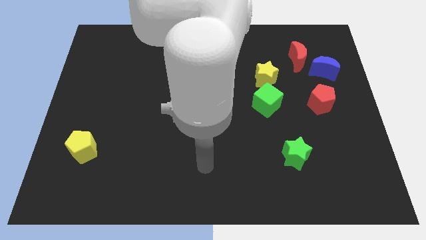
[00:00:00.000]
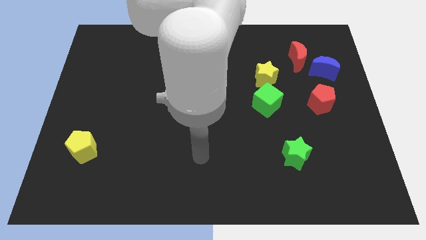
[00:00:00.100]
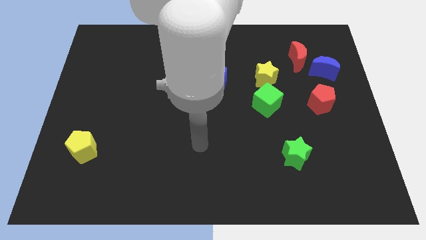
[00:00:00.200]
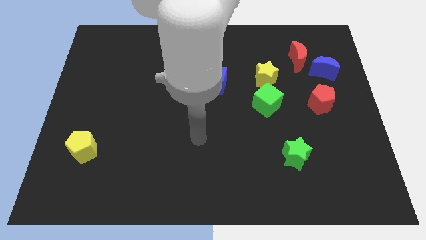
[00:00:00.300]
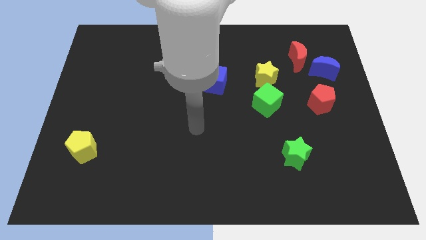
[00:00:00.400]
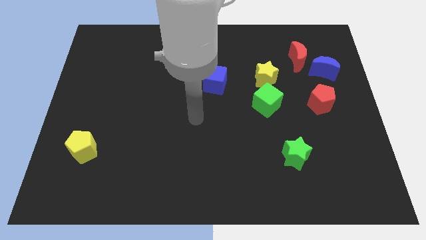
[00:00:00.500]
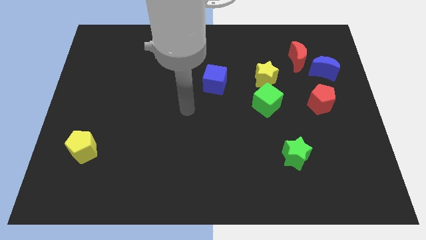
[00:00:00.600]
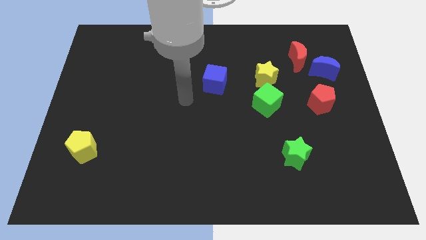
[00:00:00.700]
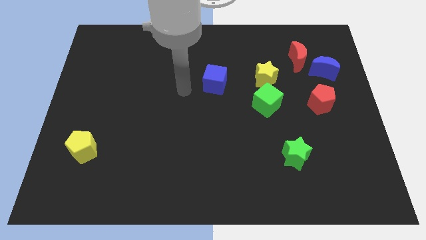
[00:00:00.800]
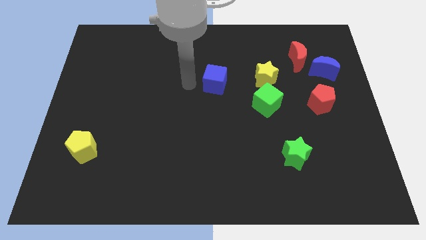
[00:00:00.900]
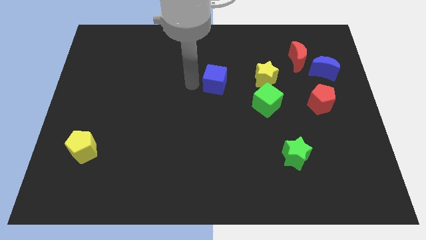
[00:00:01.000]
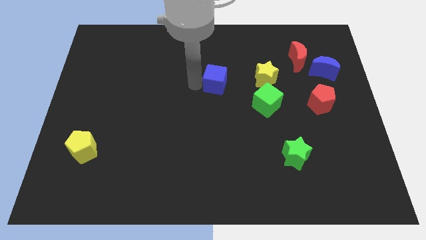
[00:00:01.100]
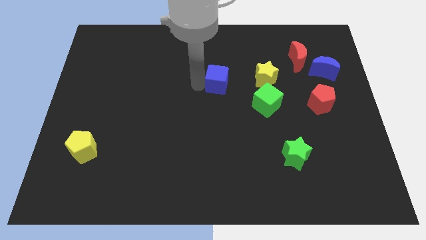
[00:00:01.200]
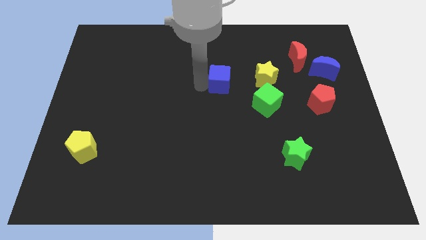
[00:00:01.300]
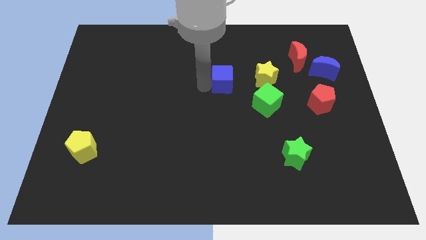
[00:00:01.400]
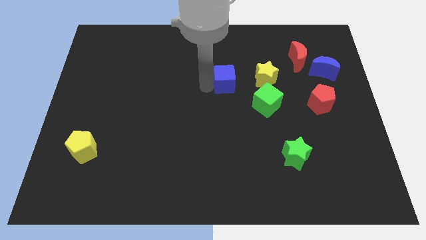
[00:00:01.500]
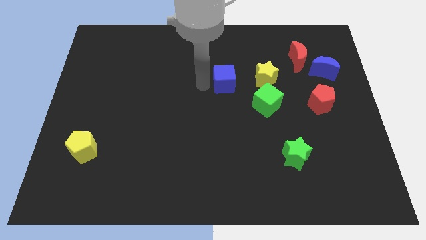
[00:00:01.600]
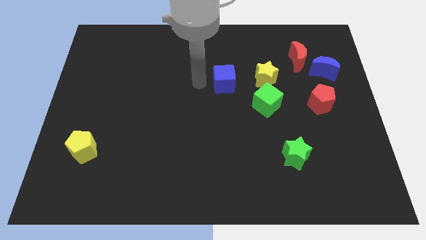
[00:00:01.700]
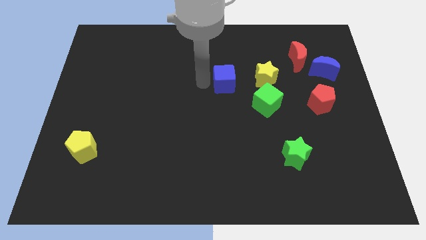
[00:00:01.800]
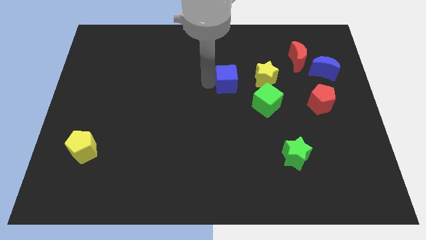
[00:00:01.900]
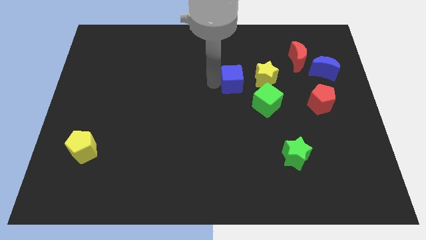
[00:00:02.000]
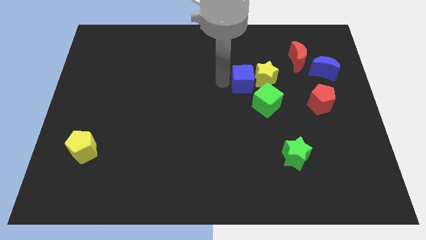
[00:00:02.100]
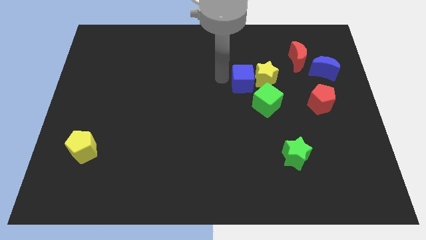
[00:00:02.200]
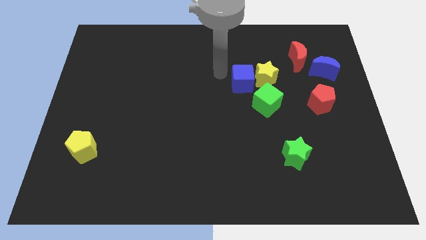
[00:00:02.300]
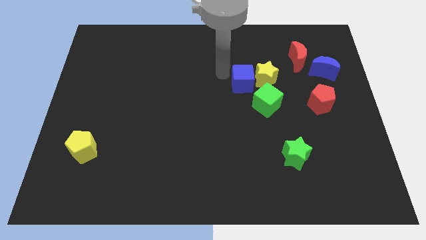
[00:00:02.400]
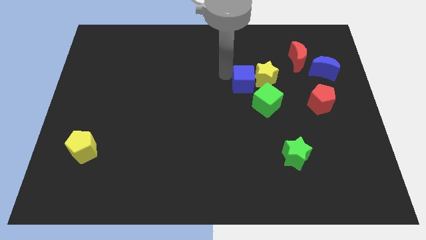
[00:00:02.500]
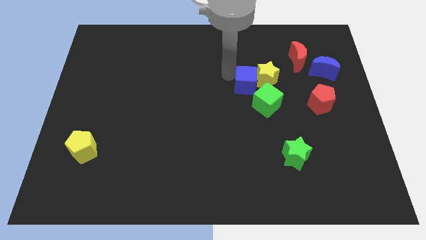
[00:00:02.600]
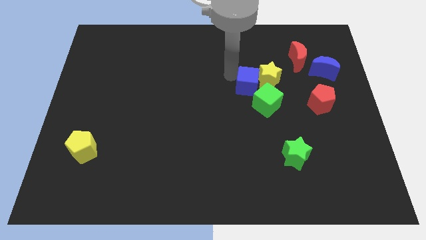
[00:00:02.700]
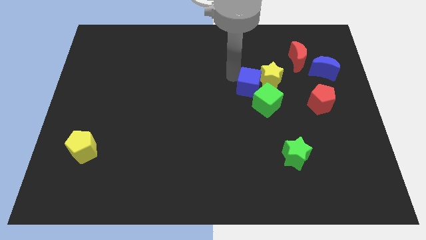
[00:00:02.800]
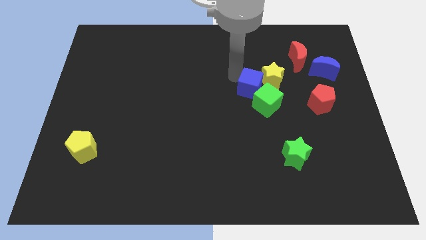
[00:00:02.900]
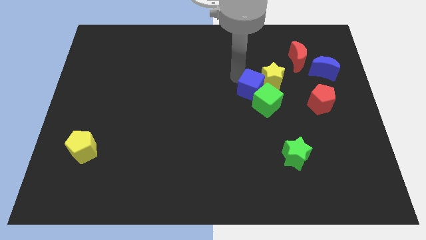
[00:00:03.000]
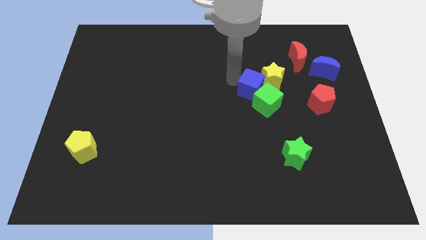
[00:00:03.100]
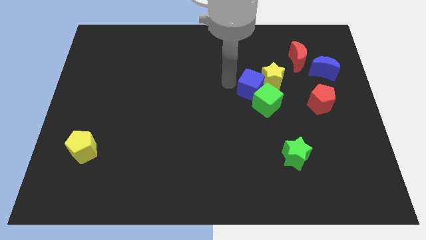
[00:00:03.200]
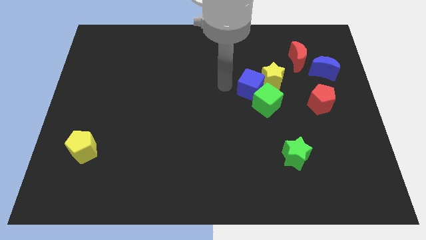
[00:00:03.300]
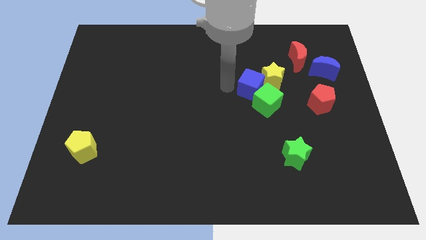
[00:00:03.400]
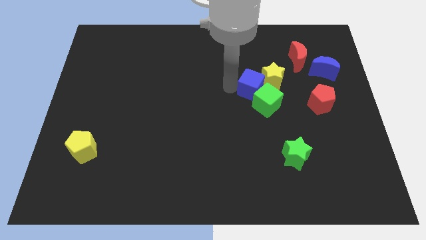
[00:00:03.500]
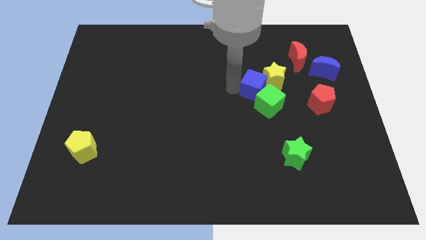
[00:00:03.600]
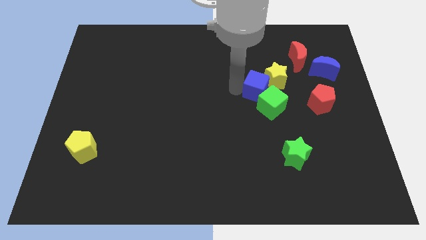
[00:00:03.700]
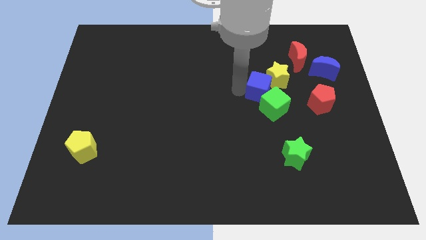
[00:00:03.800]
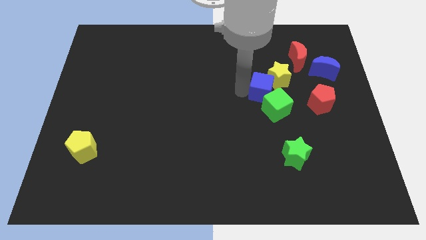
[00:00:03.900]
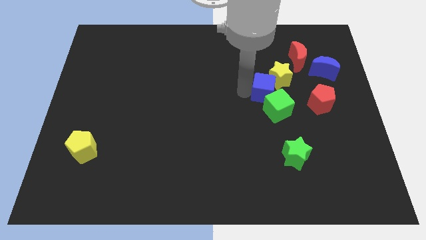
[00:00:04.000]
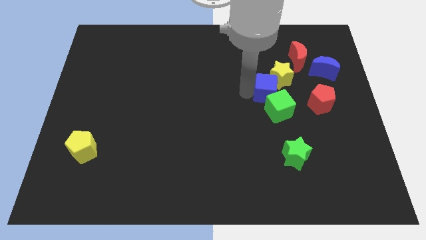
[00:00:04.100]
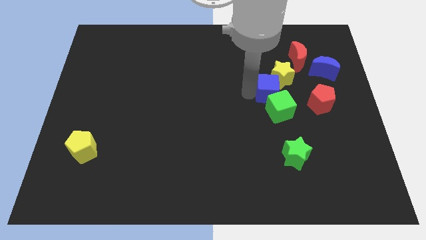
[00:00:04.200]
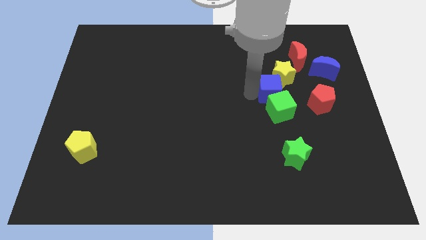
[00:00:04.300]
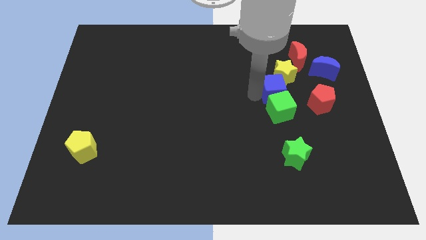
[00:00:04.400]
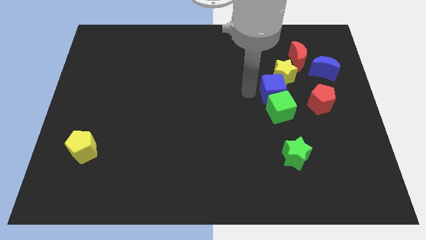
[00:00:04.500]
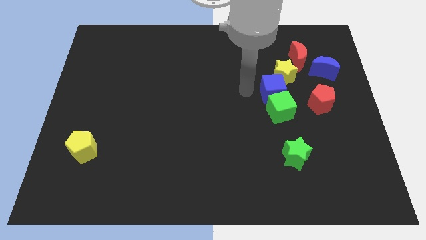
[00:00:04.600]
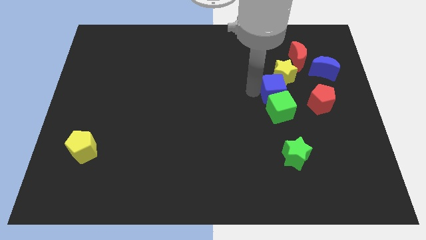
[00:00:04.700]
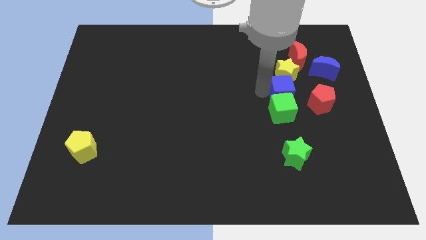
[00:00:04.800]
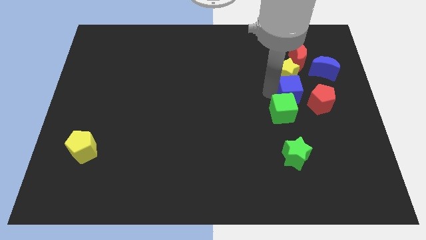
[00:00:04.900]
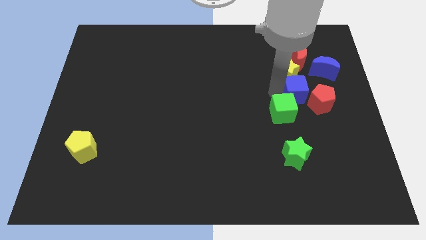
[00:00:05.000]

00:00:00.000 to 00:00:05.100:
slide the blue cube towards the red pentagon

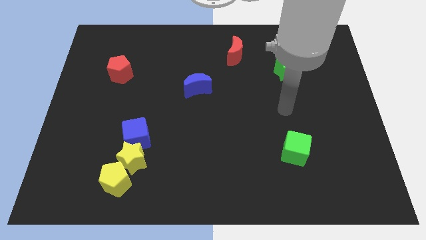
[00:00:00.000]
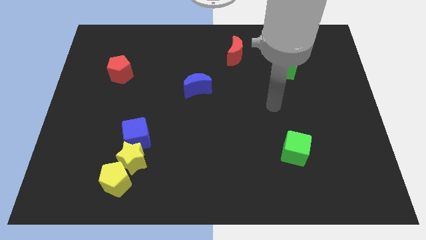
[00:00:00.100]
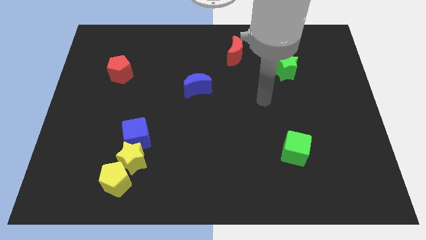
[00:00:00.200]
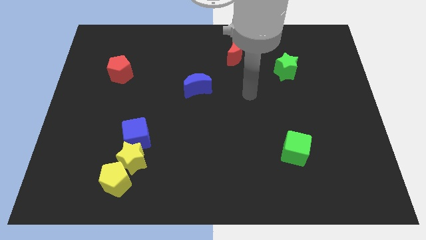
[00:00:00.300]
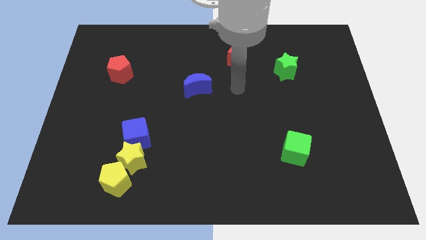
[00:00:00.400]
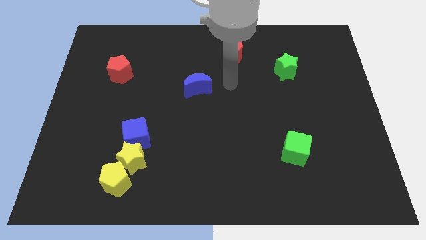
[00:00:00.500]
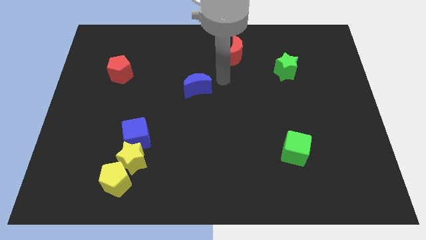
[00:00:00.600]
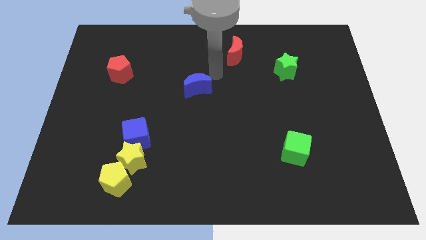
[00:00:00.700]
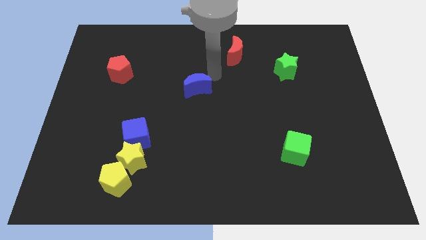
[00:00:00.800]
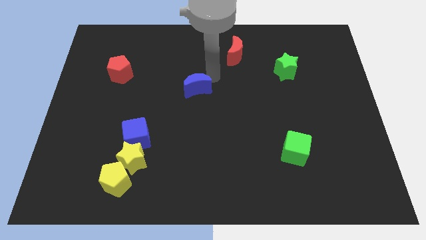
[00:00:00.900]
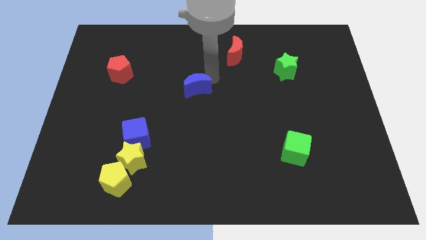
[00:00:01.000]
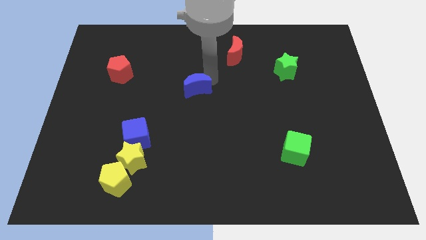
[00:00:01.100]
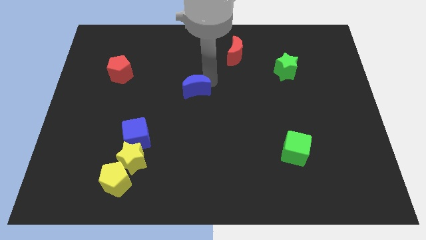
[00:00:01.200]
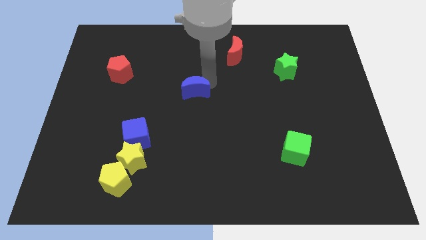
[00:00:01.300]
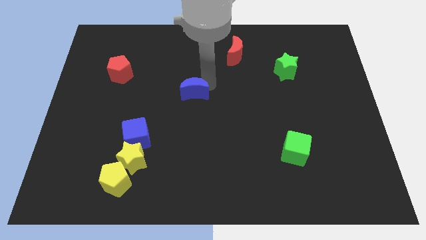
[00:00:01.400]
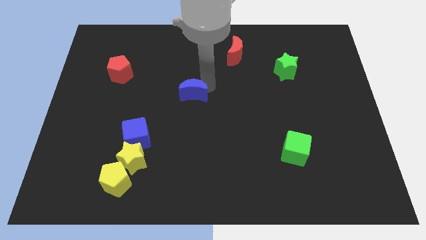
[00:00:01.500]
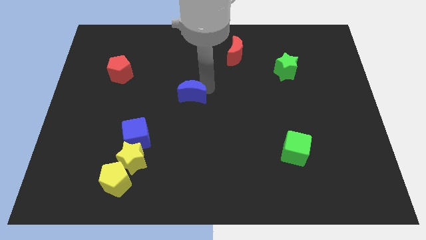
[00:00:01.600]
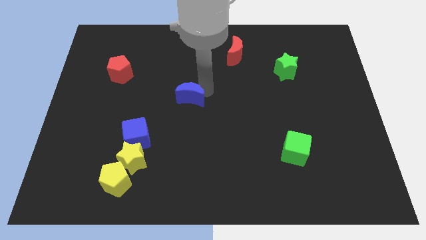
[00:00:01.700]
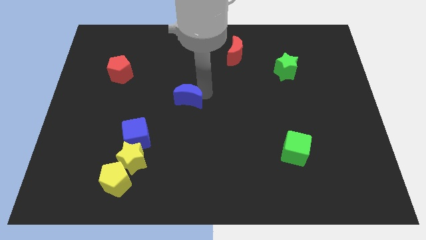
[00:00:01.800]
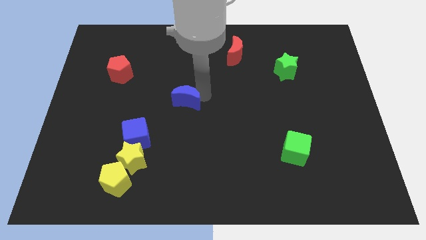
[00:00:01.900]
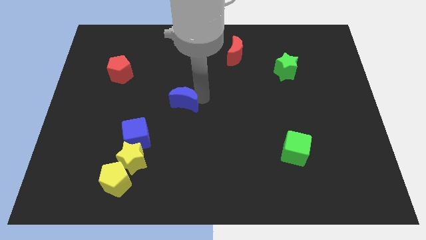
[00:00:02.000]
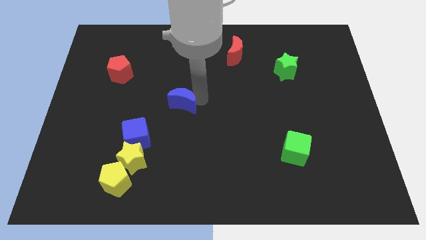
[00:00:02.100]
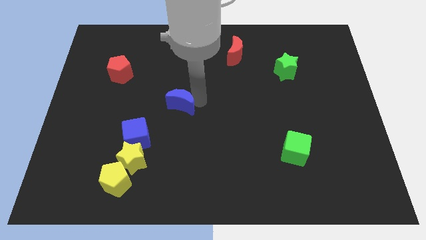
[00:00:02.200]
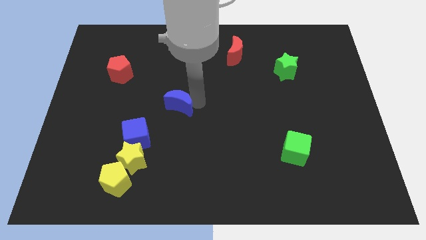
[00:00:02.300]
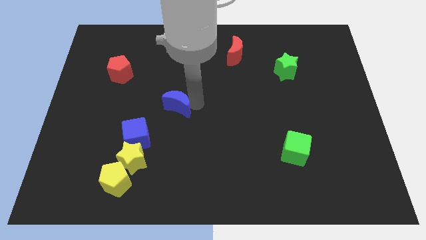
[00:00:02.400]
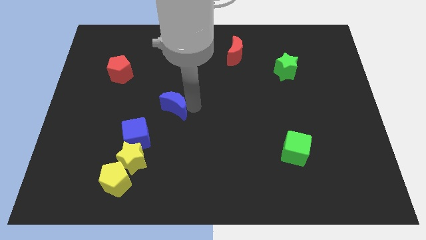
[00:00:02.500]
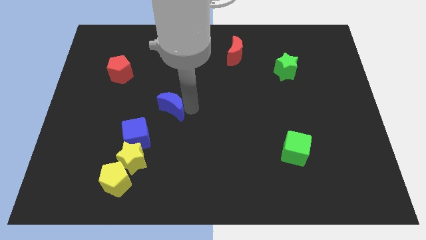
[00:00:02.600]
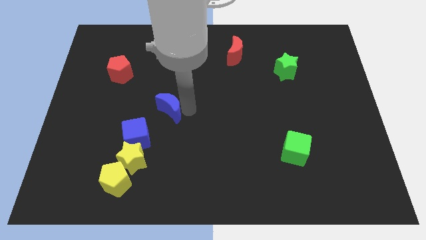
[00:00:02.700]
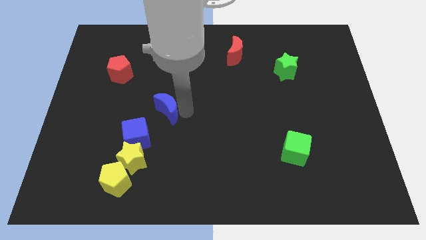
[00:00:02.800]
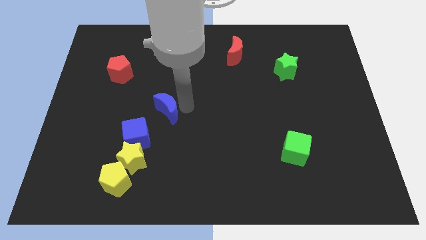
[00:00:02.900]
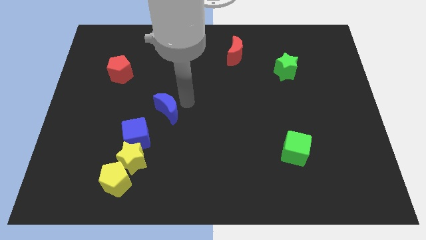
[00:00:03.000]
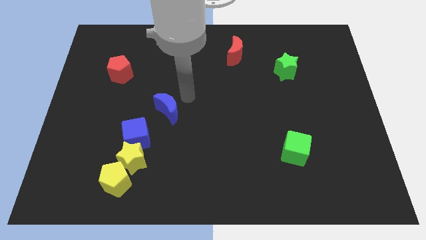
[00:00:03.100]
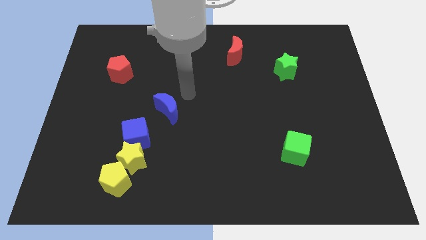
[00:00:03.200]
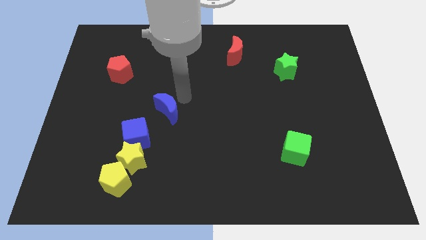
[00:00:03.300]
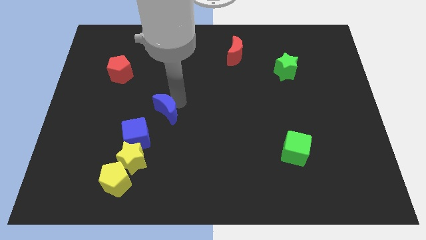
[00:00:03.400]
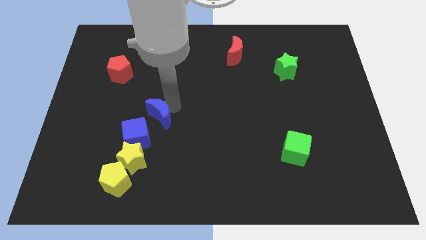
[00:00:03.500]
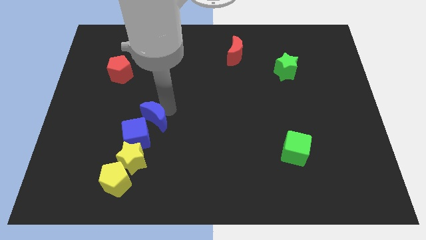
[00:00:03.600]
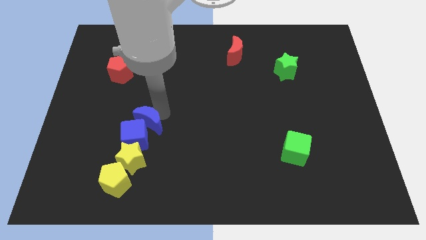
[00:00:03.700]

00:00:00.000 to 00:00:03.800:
push the blue moon next to the blue cube
